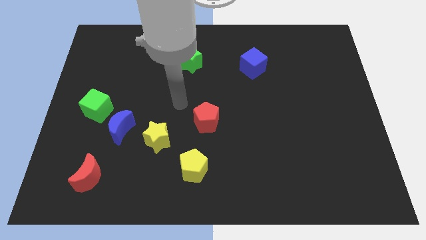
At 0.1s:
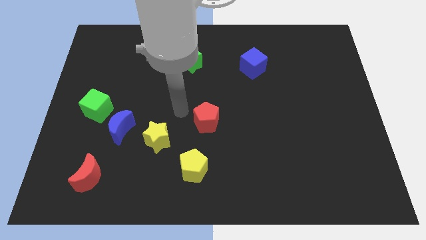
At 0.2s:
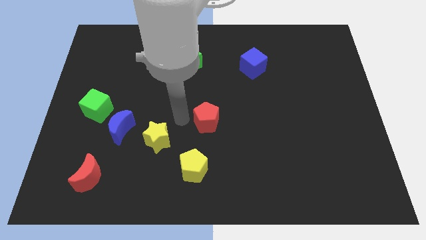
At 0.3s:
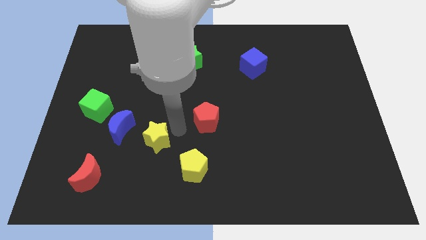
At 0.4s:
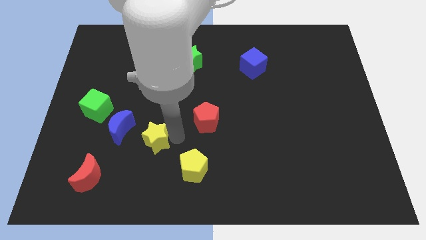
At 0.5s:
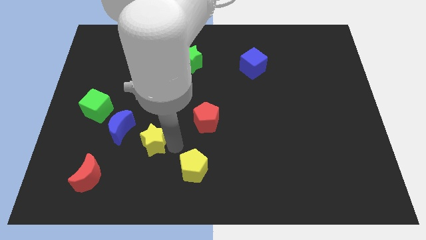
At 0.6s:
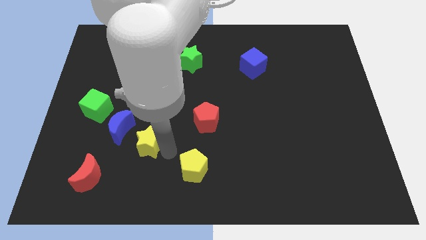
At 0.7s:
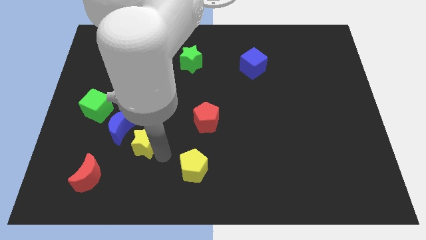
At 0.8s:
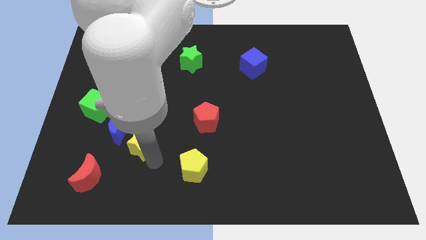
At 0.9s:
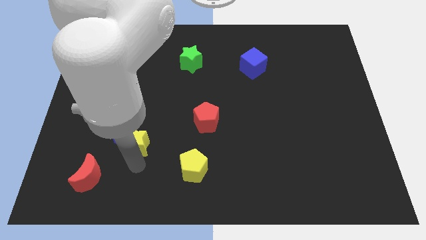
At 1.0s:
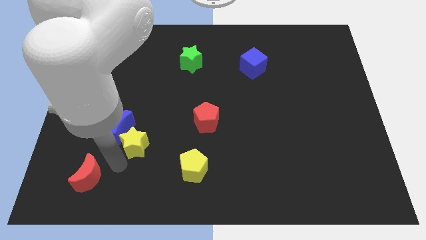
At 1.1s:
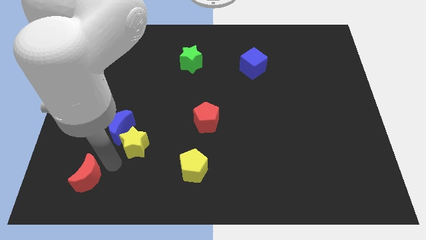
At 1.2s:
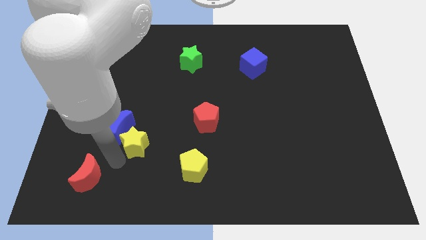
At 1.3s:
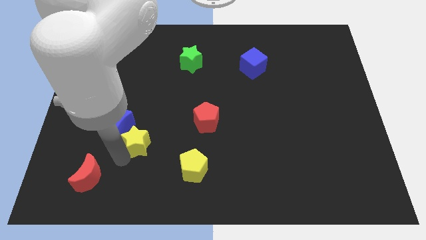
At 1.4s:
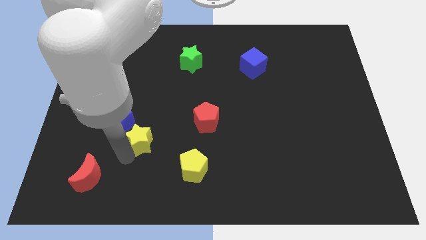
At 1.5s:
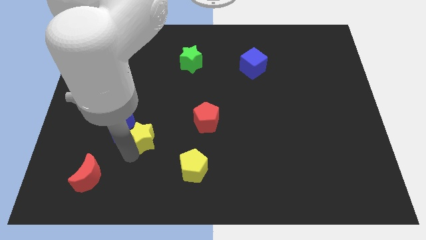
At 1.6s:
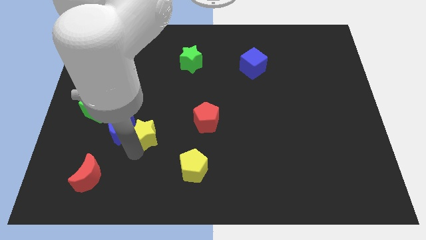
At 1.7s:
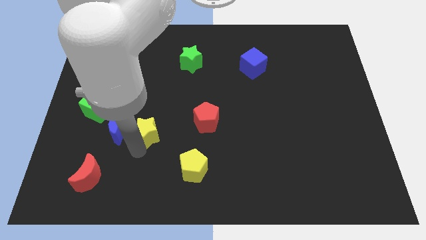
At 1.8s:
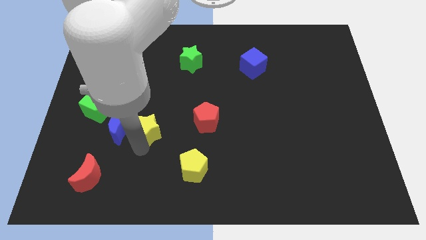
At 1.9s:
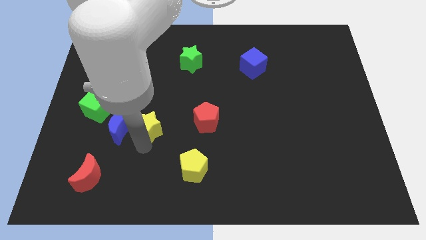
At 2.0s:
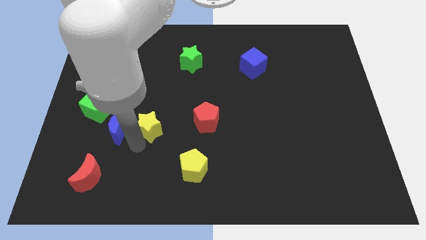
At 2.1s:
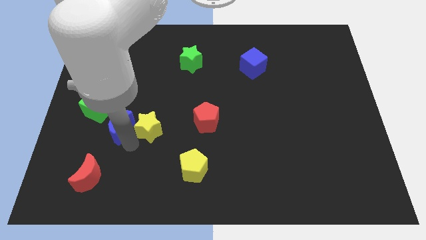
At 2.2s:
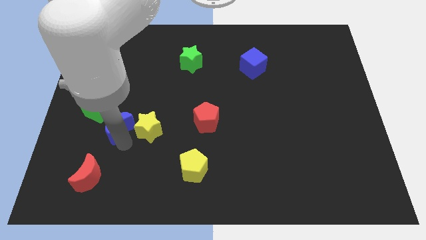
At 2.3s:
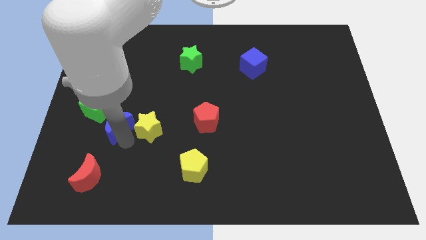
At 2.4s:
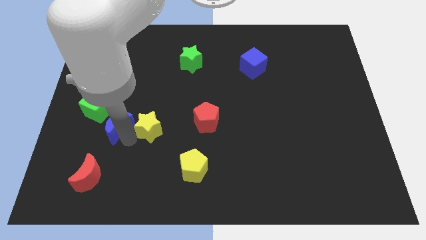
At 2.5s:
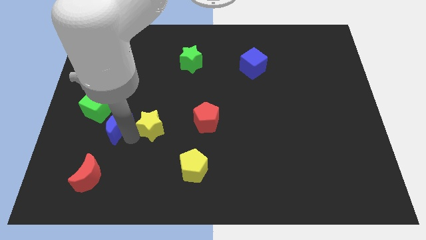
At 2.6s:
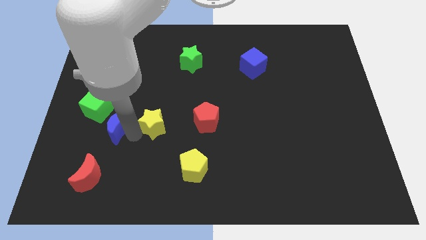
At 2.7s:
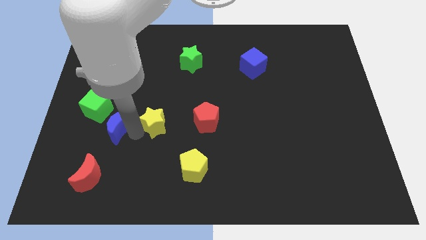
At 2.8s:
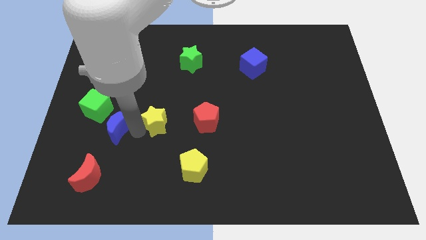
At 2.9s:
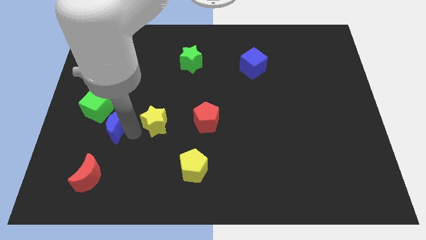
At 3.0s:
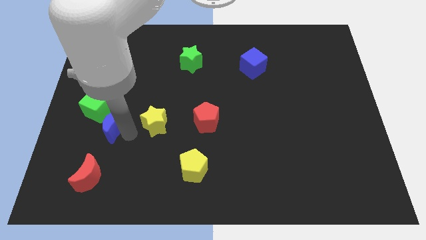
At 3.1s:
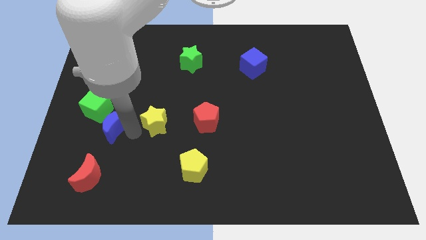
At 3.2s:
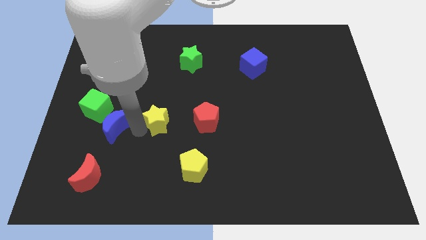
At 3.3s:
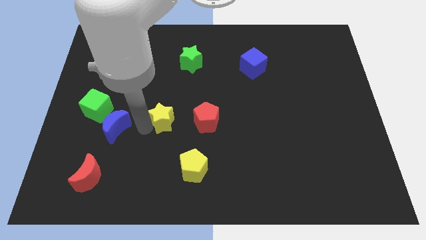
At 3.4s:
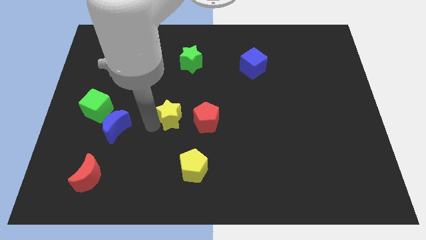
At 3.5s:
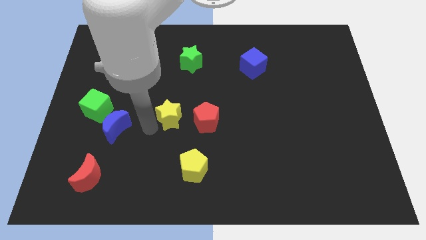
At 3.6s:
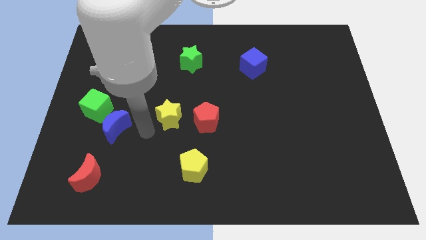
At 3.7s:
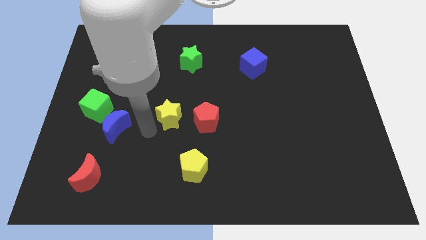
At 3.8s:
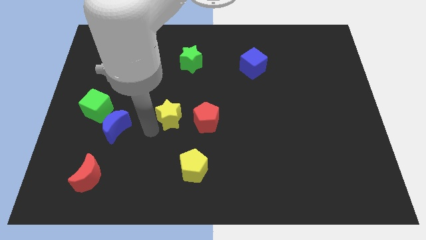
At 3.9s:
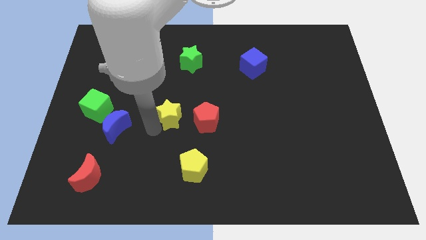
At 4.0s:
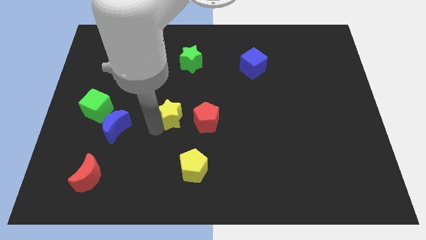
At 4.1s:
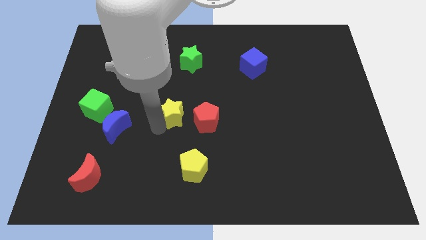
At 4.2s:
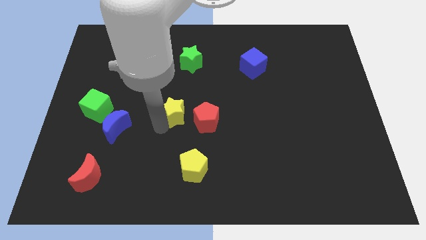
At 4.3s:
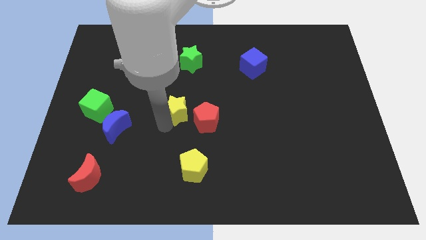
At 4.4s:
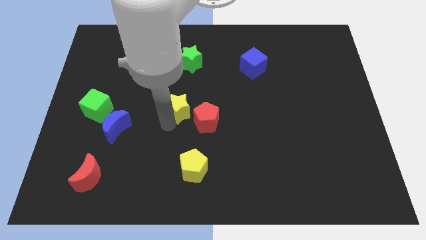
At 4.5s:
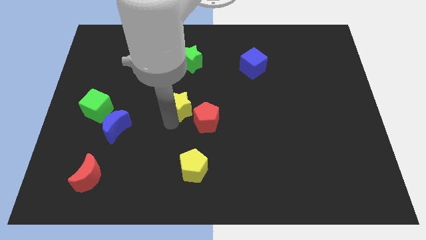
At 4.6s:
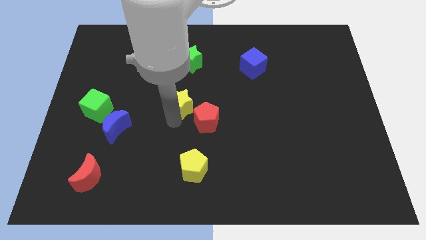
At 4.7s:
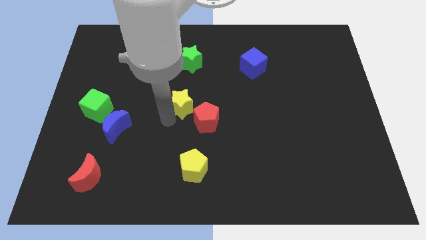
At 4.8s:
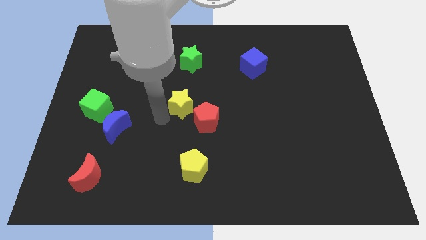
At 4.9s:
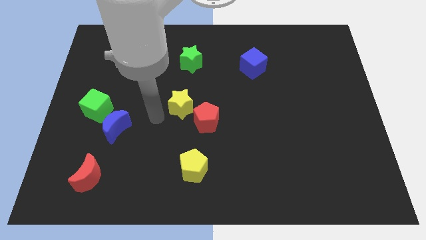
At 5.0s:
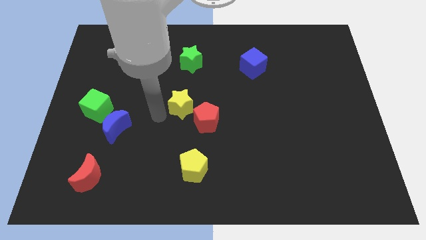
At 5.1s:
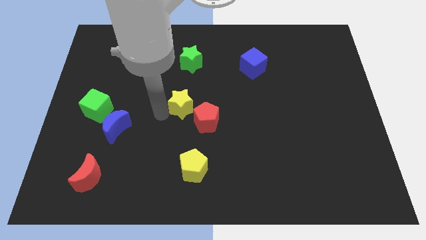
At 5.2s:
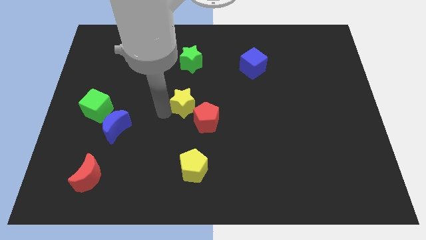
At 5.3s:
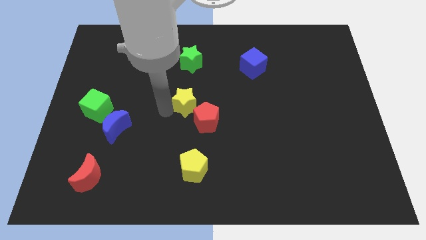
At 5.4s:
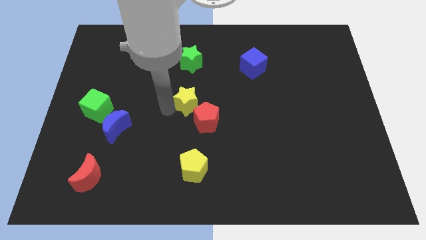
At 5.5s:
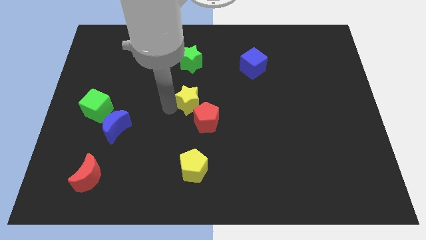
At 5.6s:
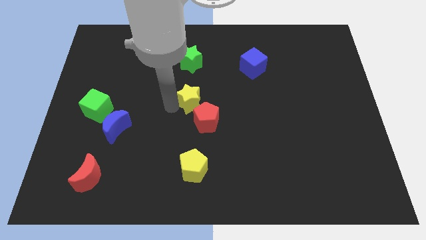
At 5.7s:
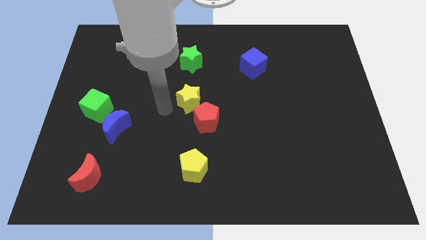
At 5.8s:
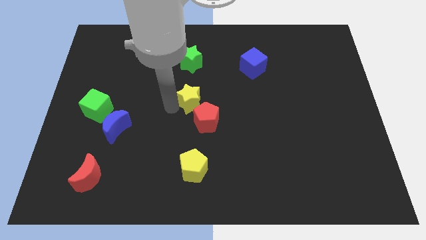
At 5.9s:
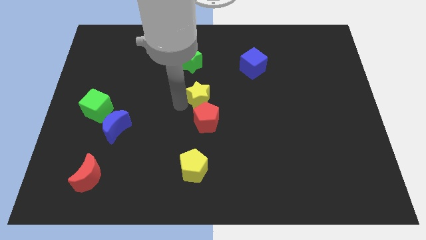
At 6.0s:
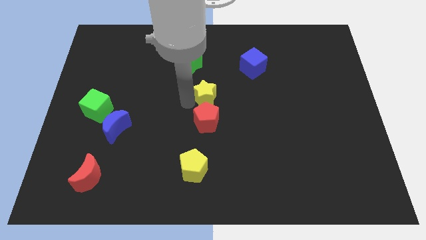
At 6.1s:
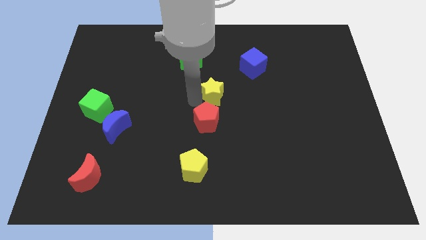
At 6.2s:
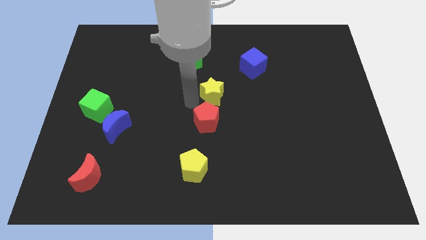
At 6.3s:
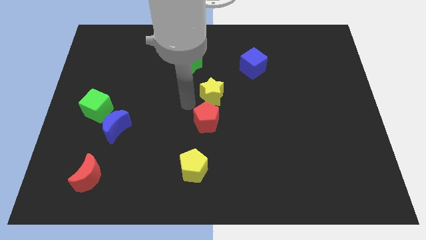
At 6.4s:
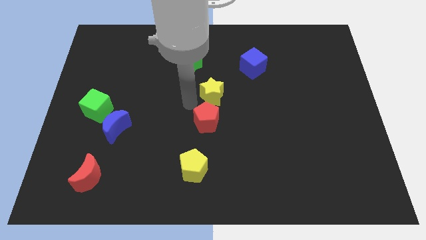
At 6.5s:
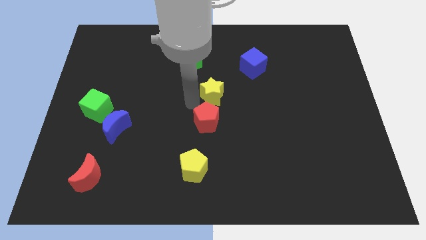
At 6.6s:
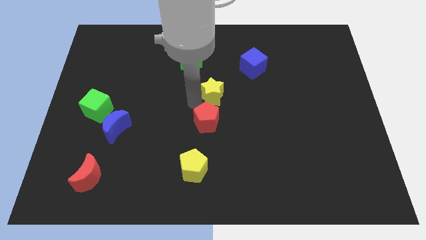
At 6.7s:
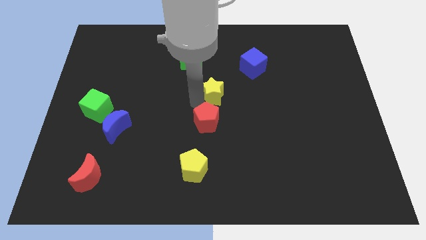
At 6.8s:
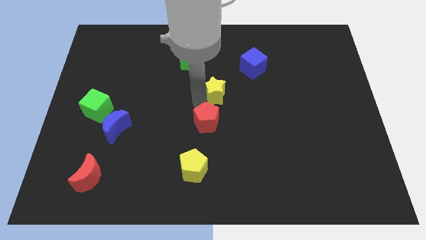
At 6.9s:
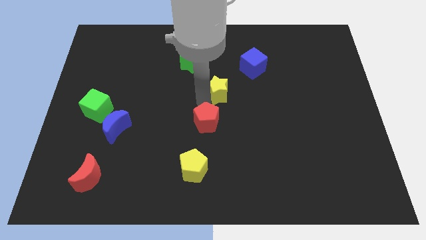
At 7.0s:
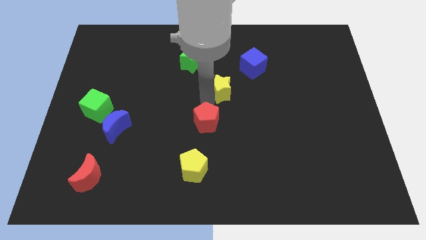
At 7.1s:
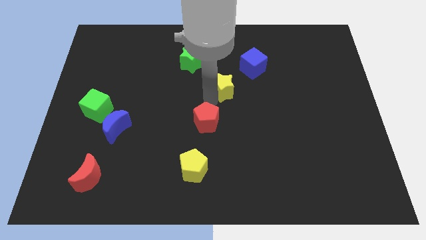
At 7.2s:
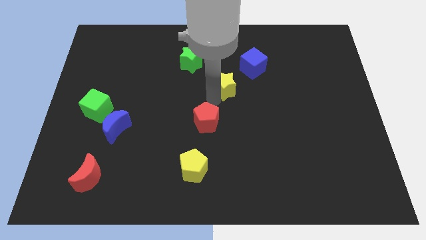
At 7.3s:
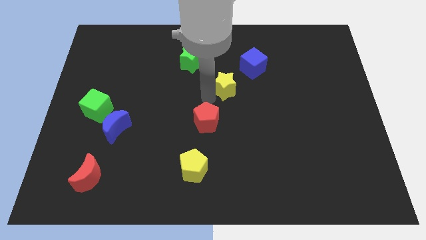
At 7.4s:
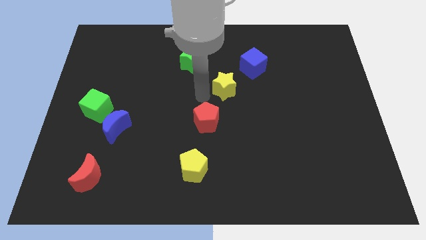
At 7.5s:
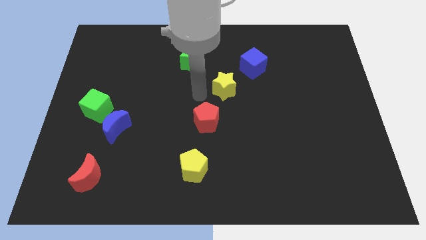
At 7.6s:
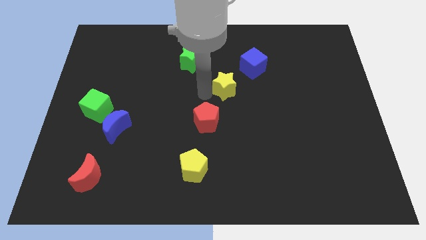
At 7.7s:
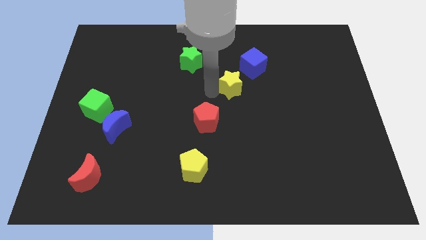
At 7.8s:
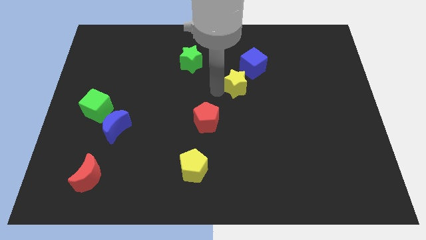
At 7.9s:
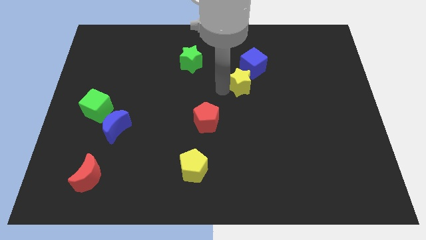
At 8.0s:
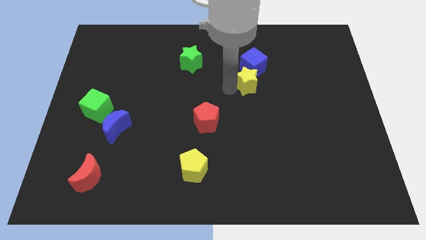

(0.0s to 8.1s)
push the yellow star to the blue cube
